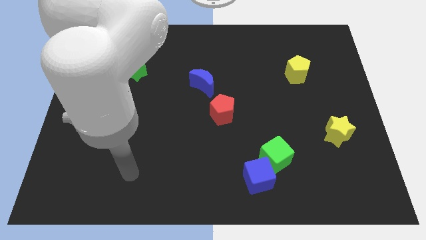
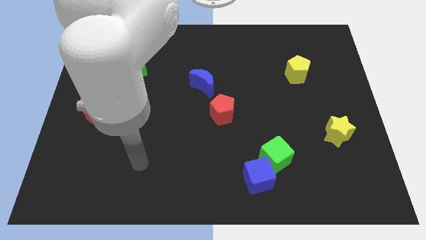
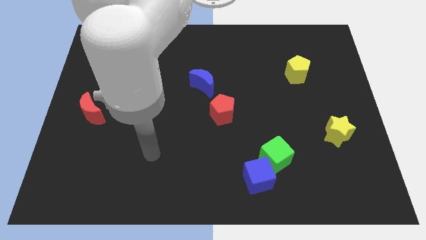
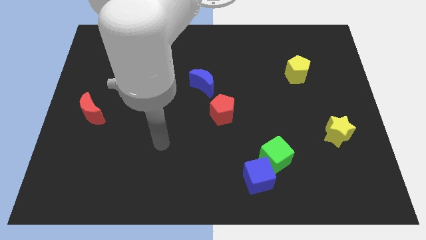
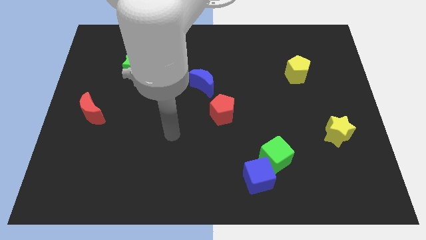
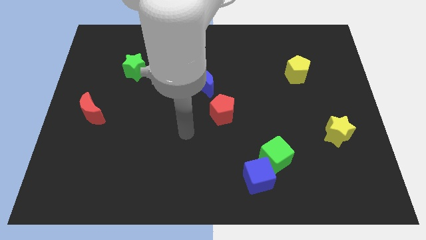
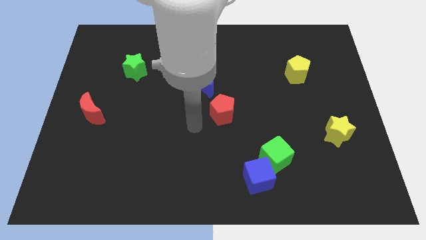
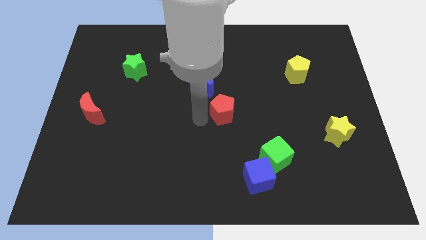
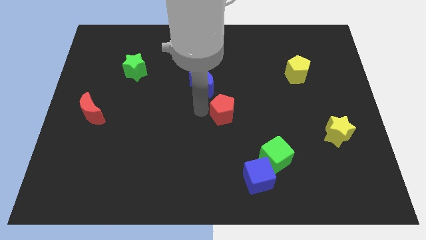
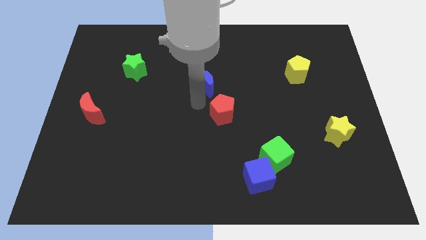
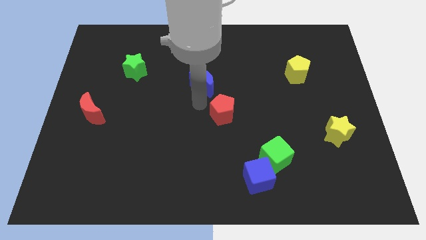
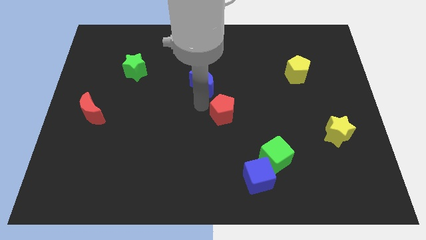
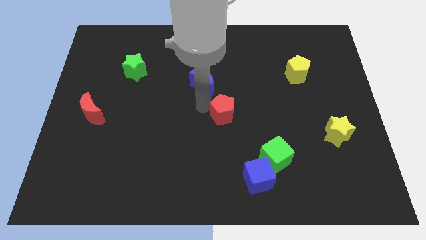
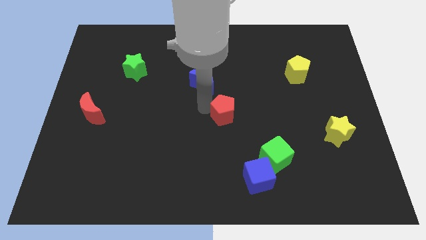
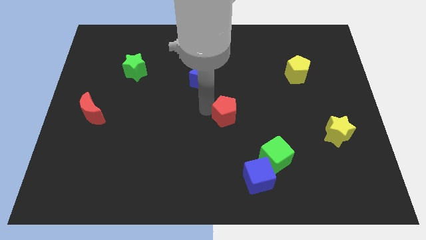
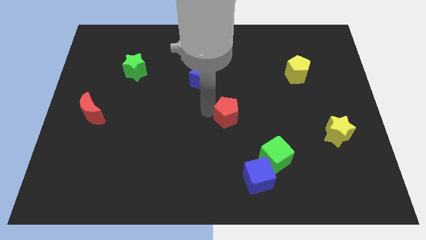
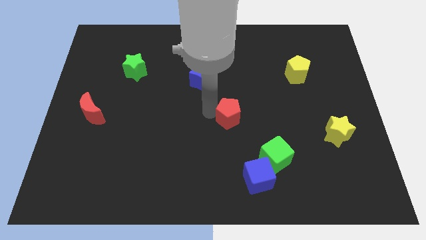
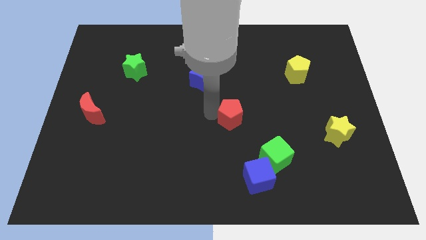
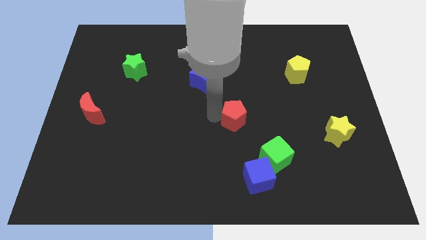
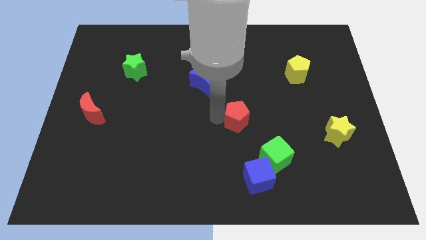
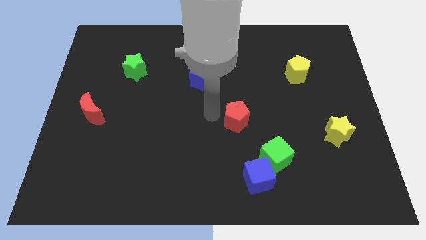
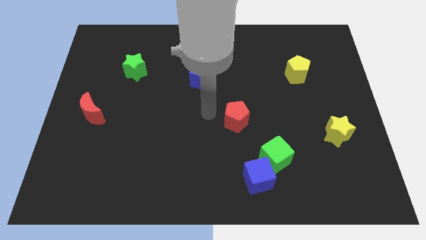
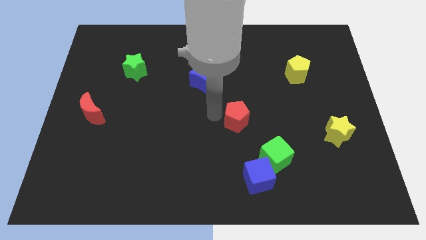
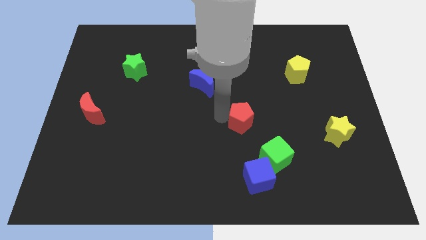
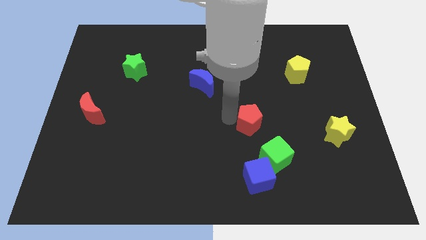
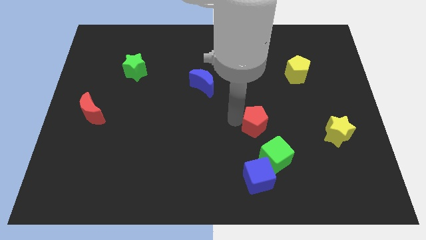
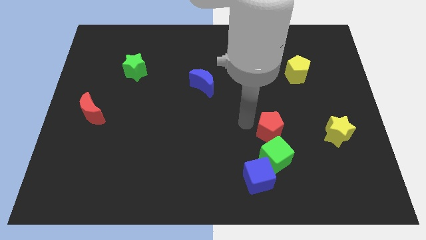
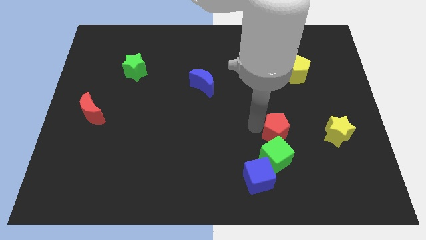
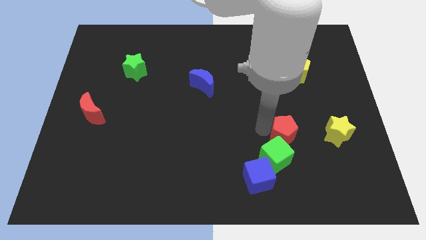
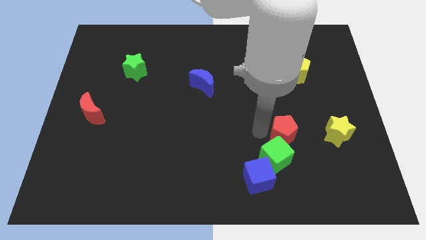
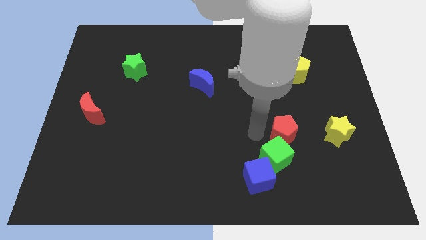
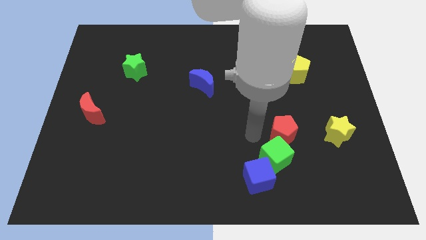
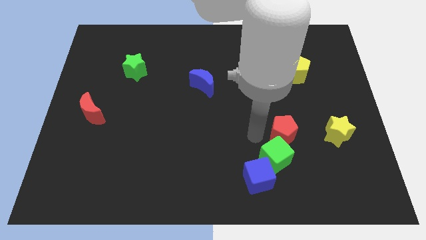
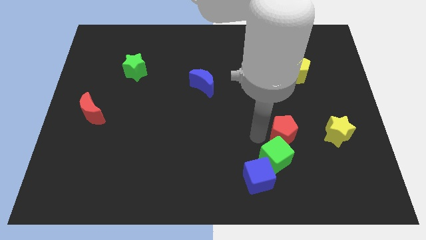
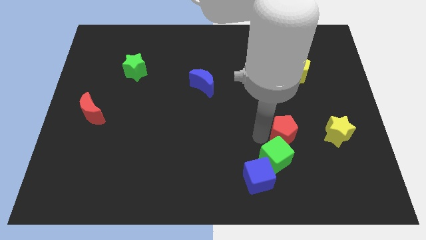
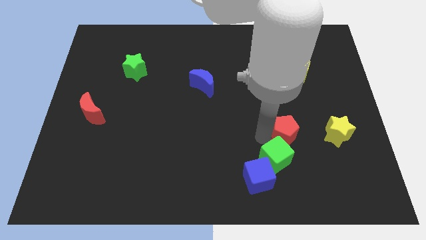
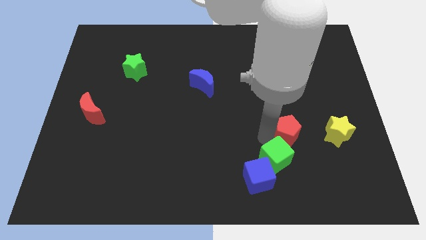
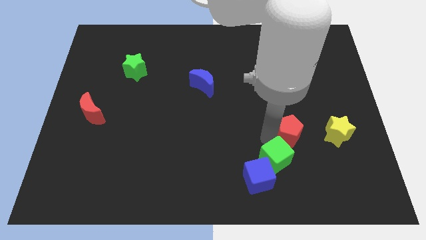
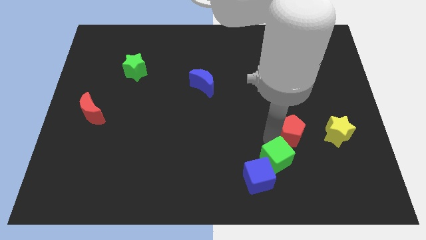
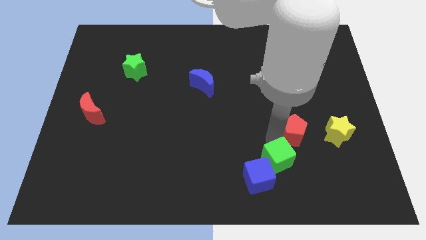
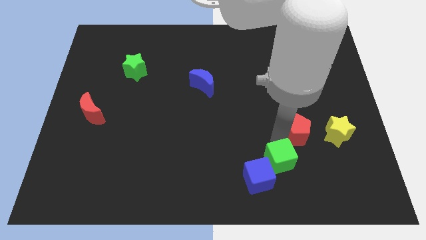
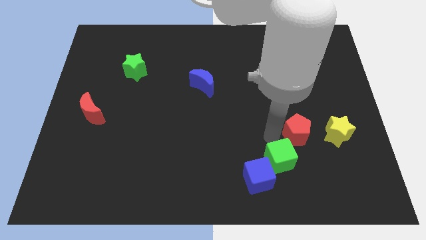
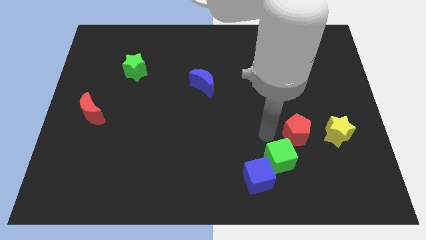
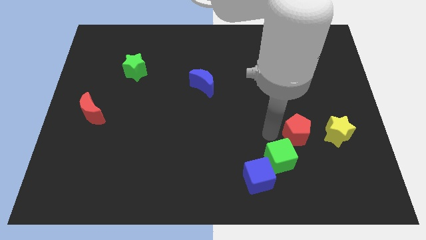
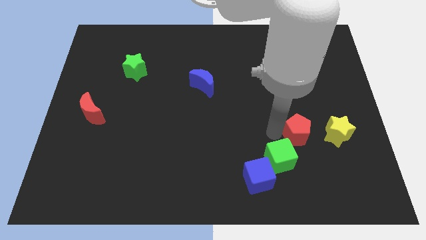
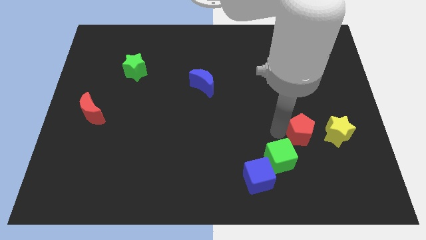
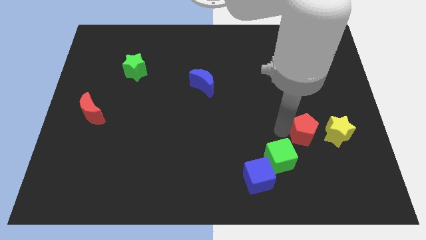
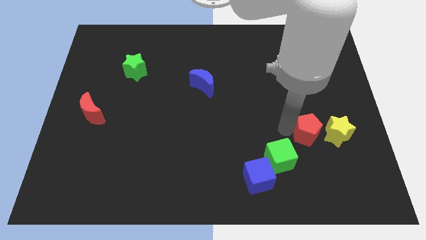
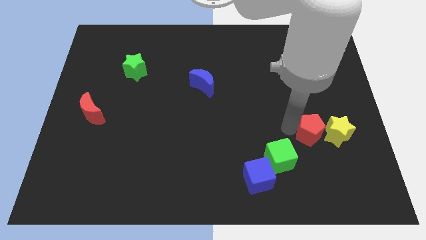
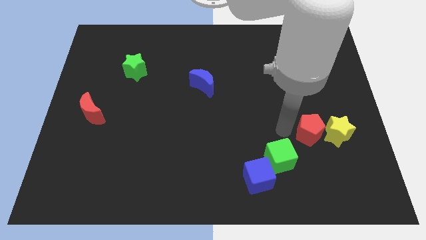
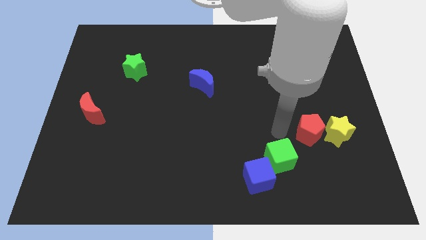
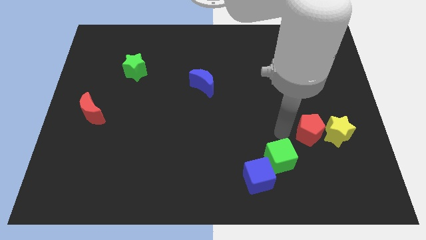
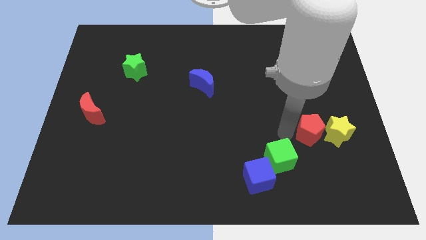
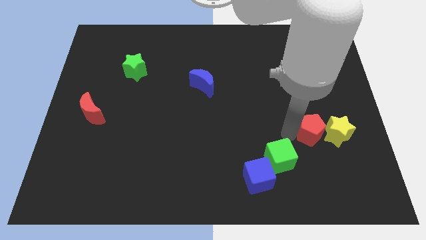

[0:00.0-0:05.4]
move the red pentagon close to the yellow star

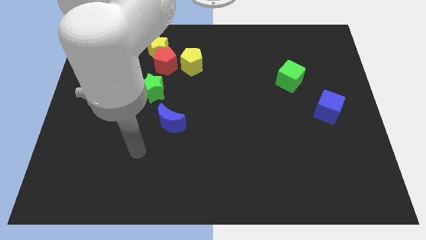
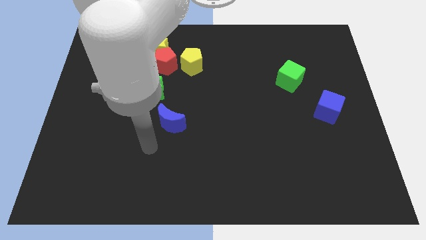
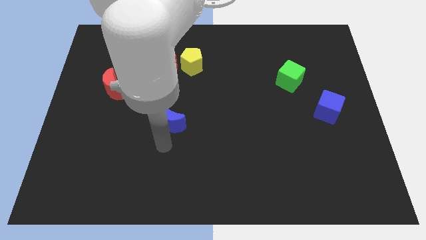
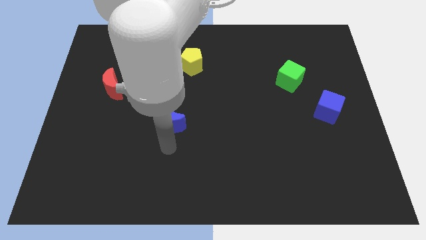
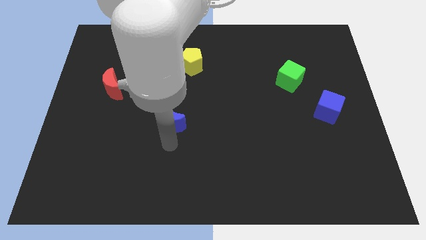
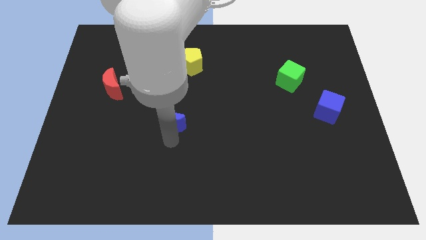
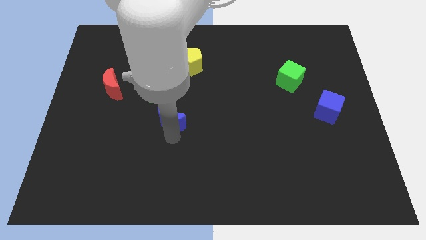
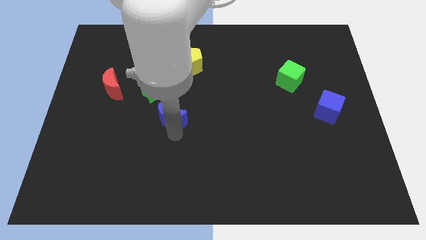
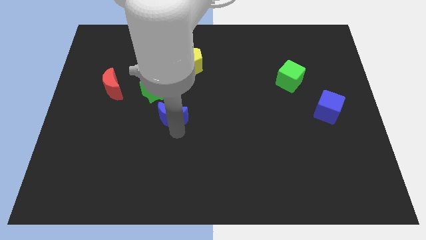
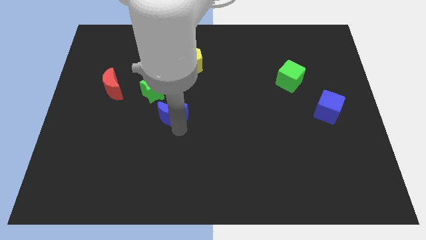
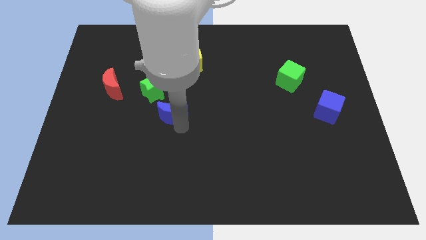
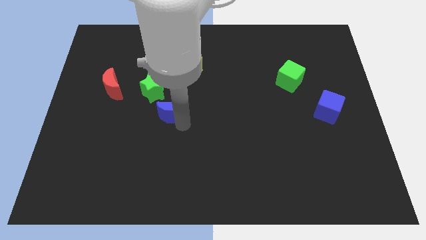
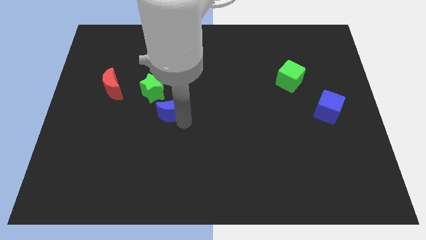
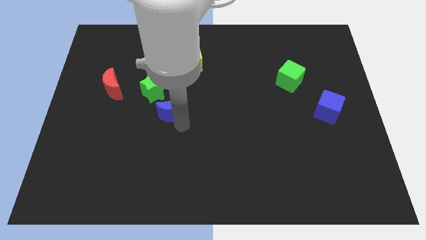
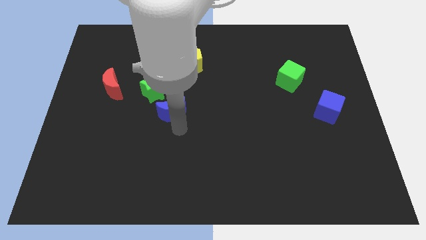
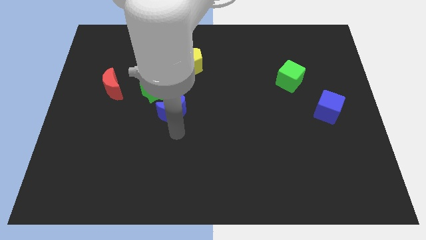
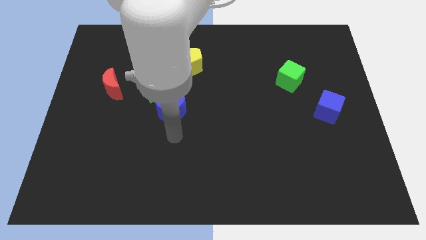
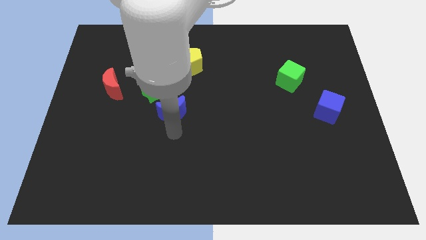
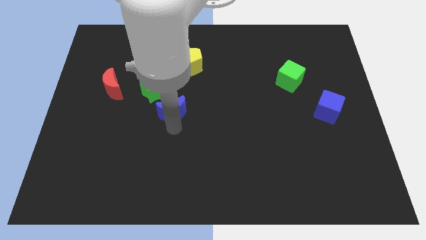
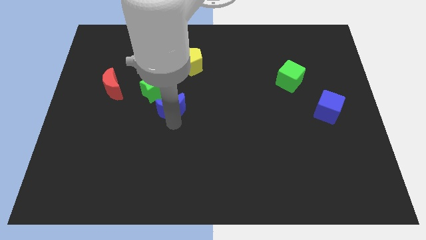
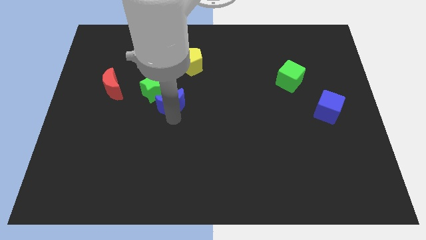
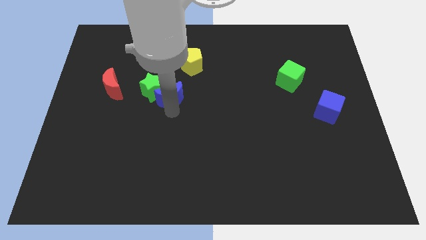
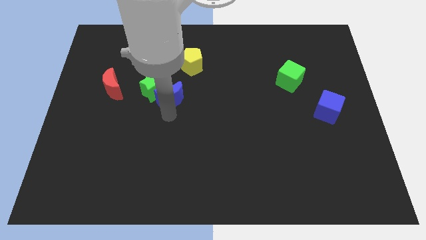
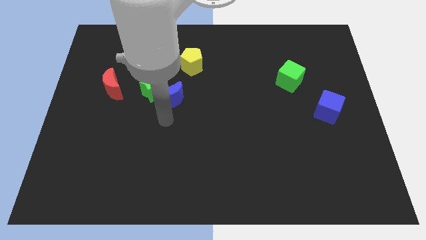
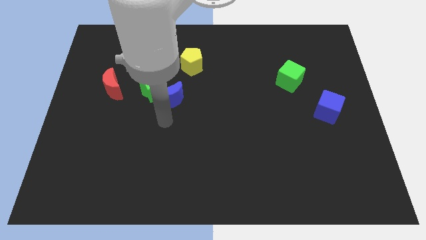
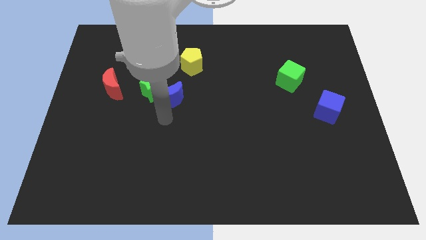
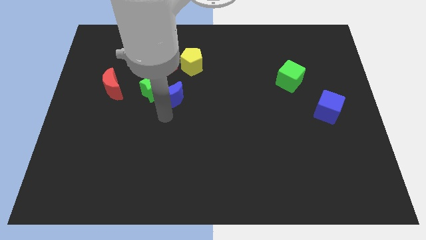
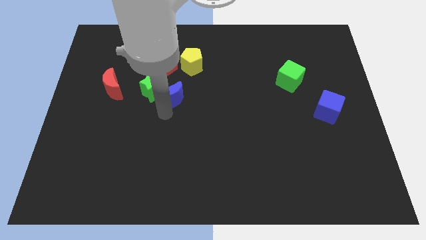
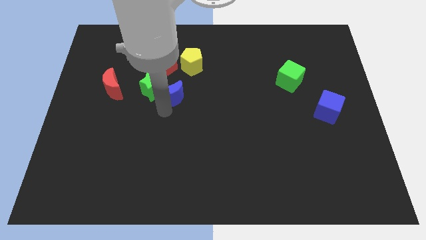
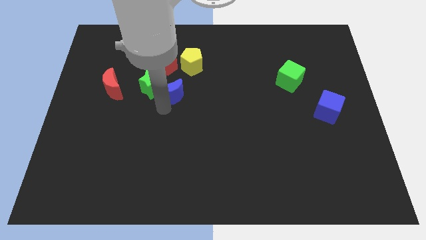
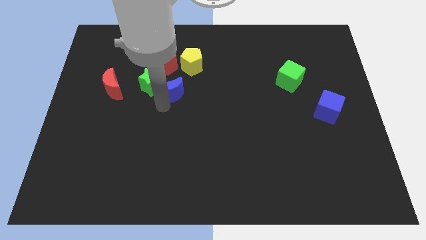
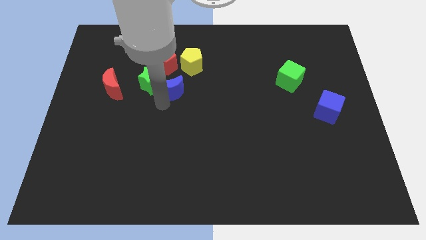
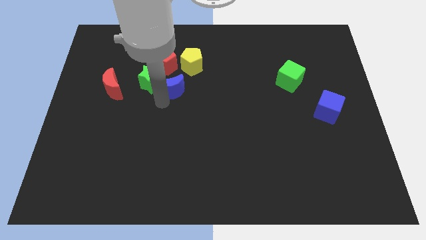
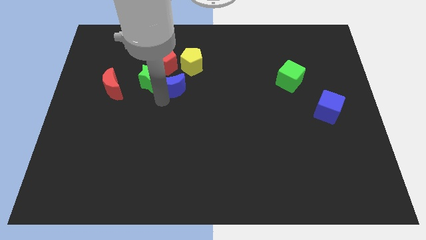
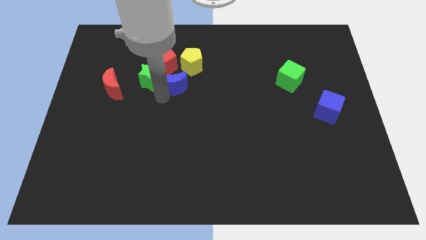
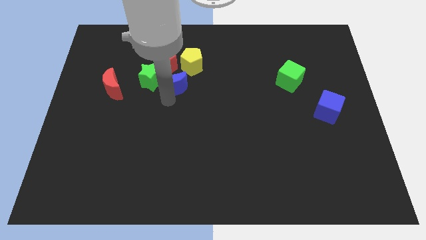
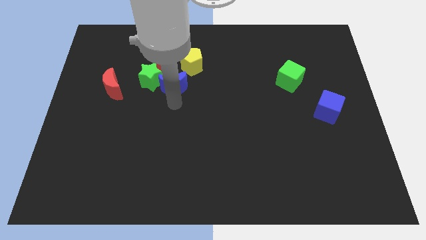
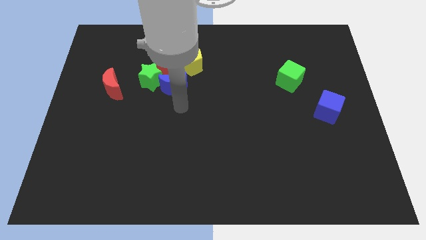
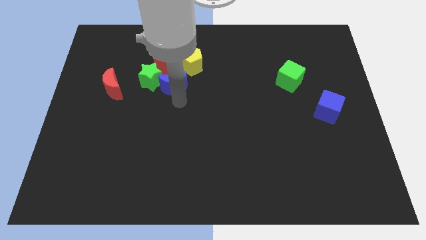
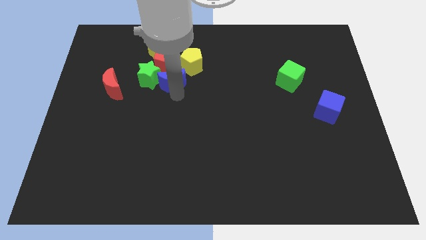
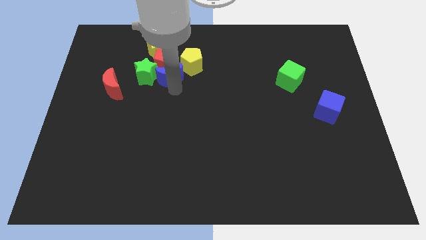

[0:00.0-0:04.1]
move the blue moon next to the red pentagon
